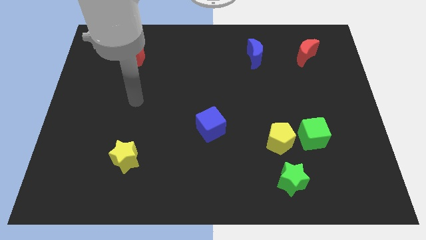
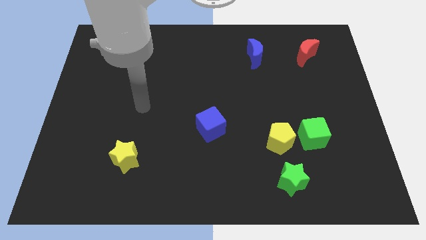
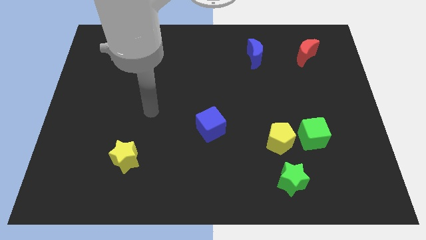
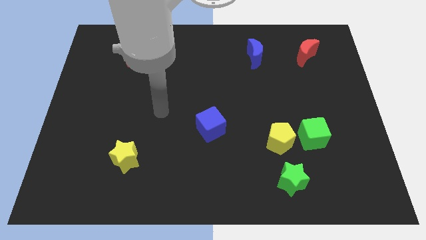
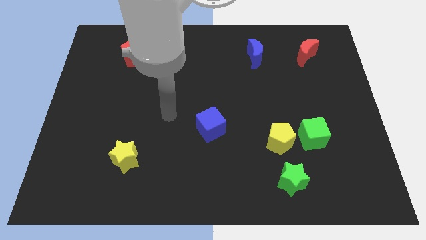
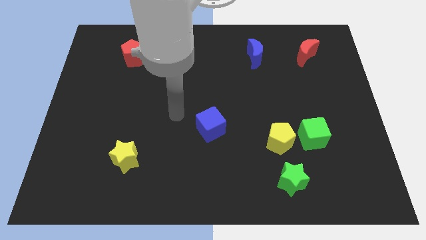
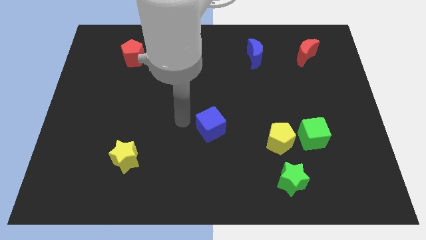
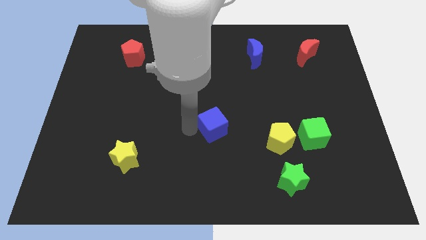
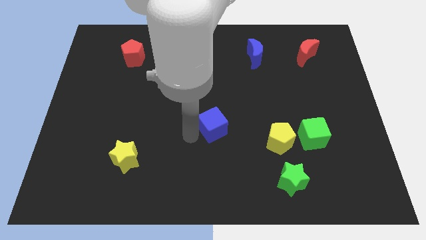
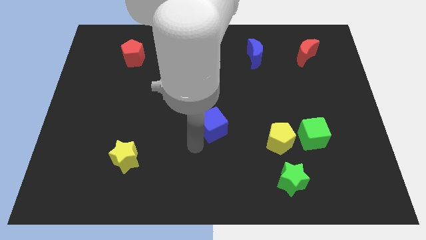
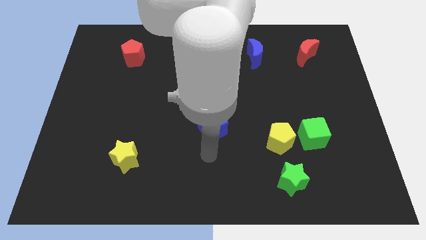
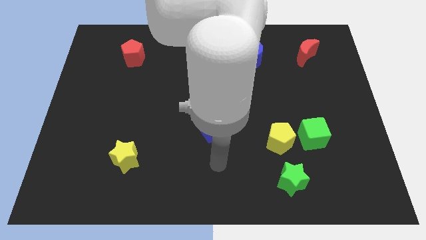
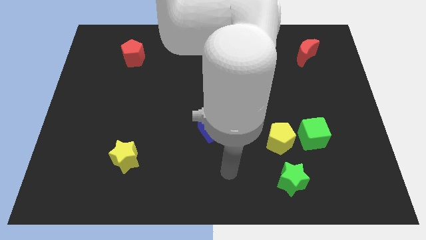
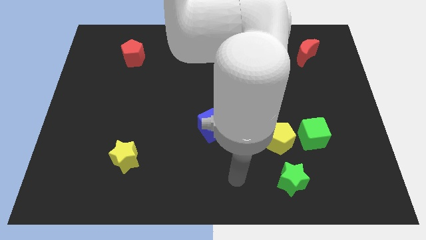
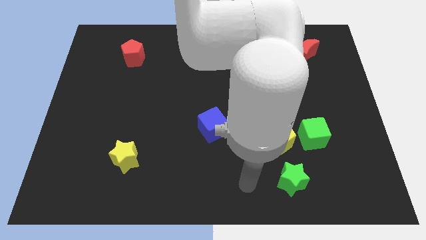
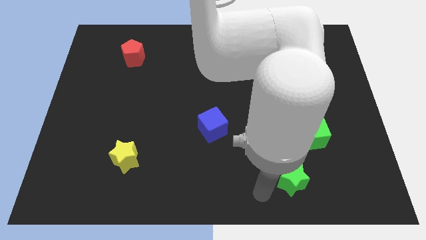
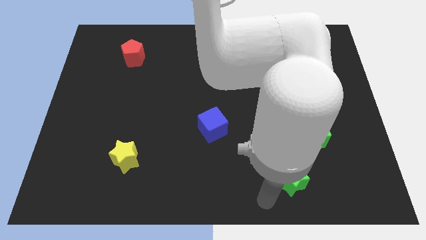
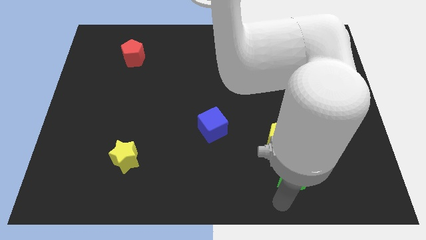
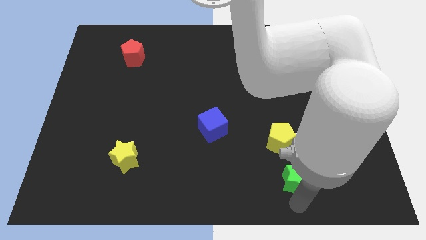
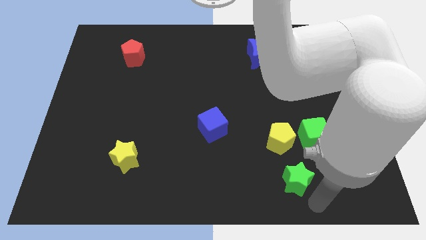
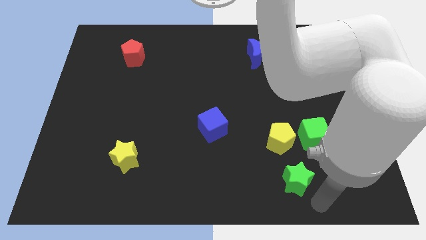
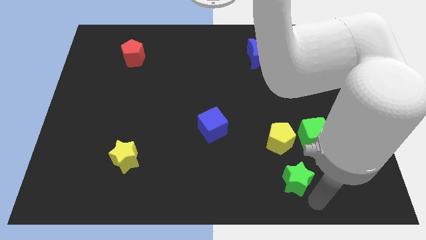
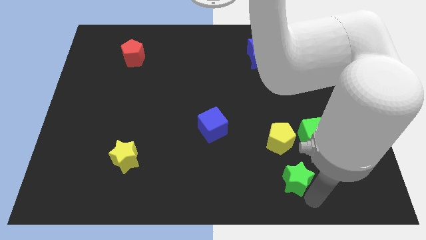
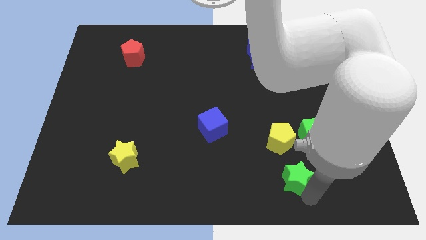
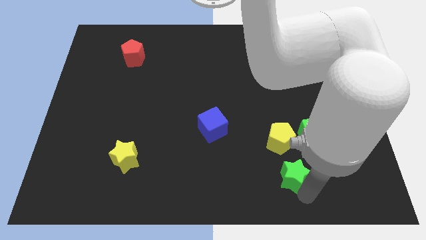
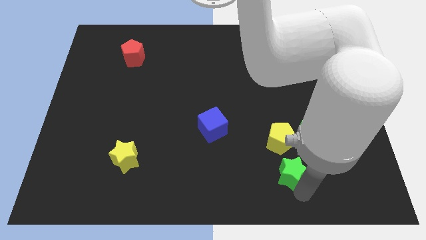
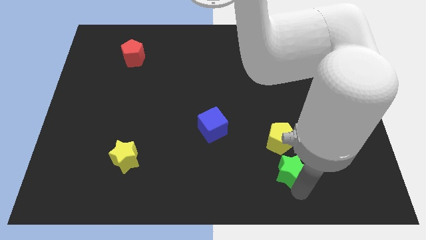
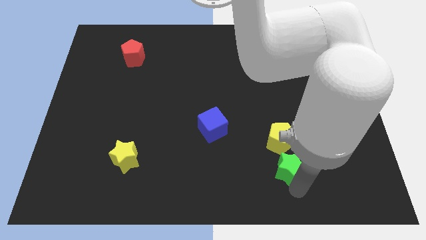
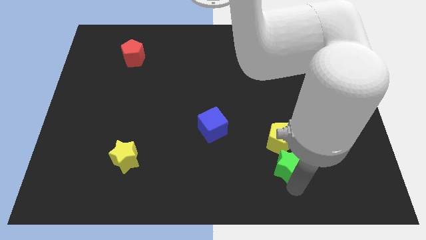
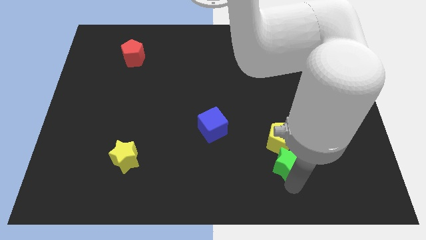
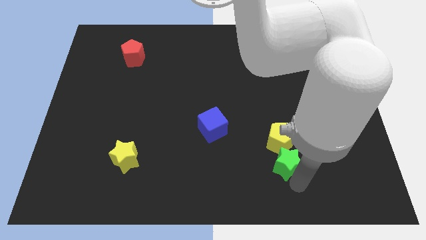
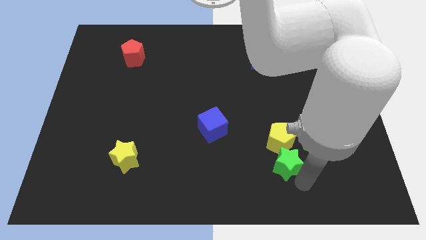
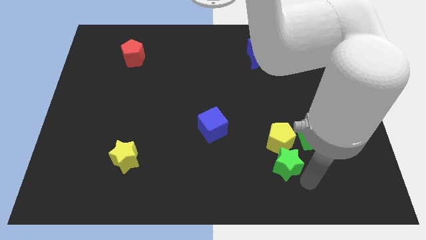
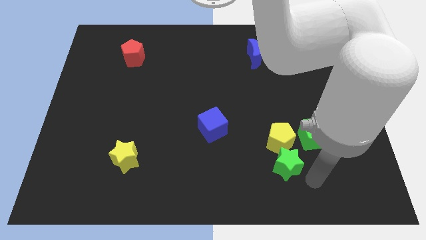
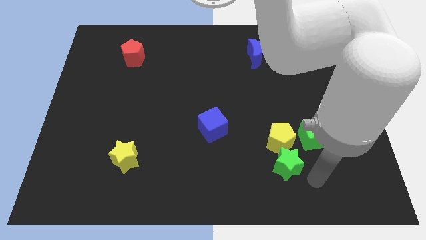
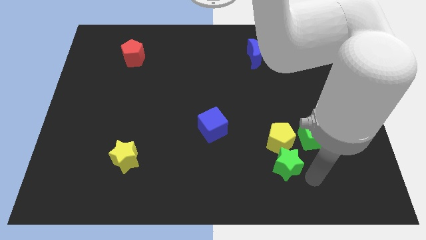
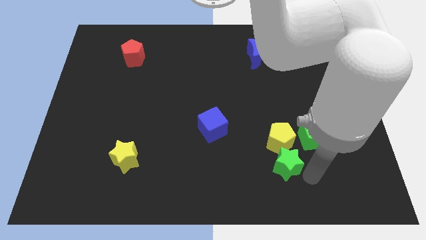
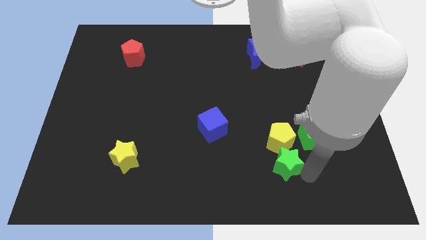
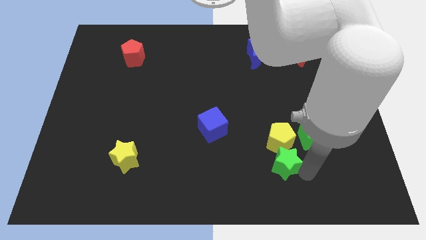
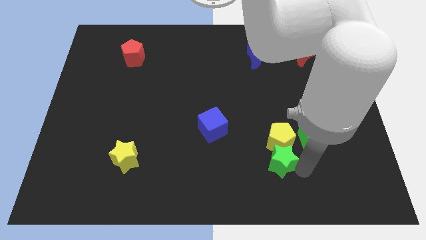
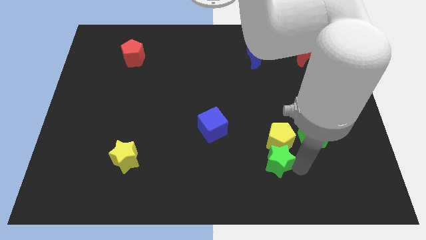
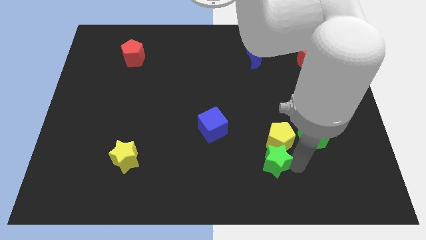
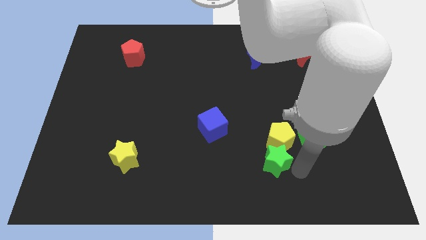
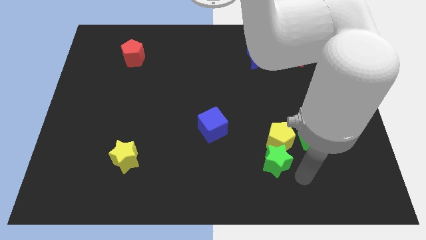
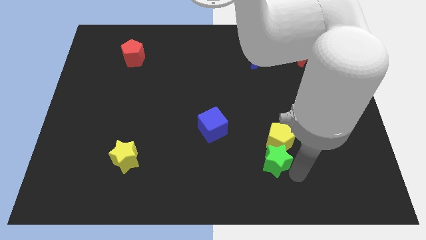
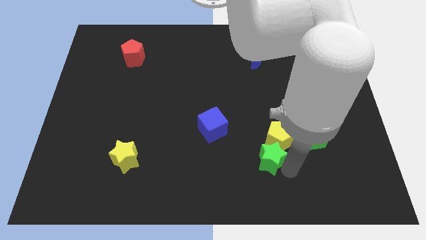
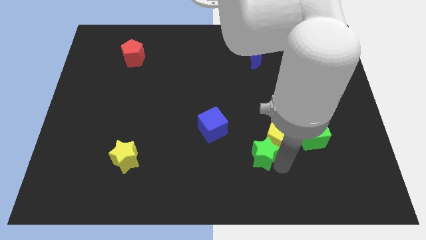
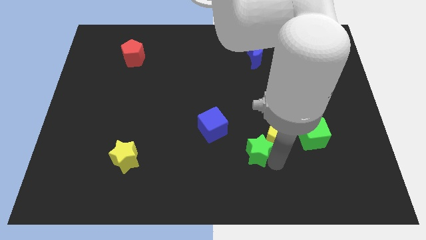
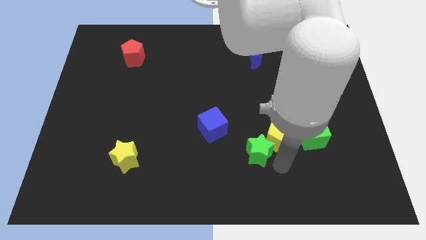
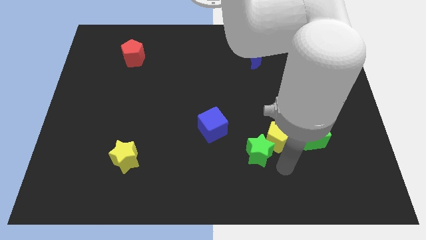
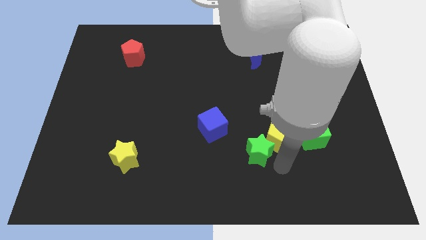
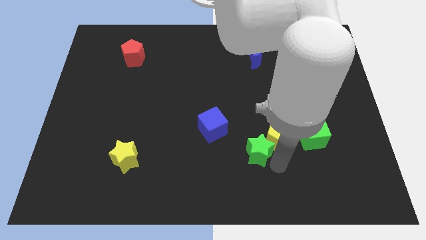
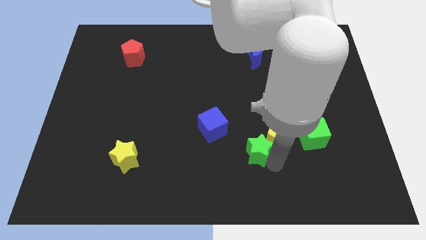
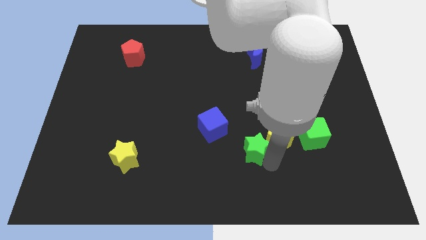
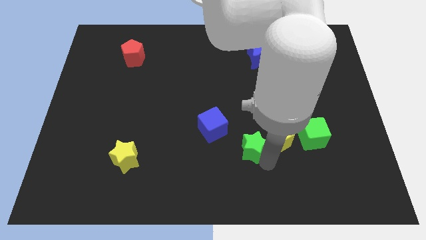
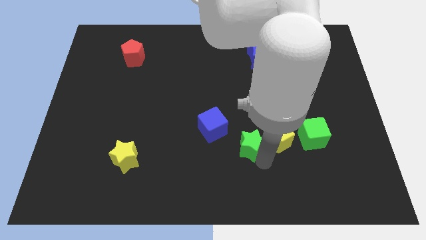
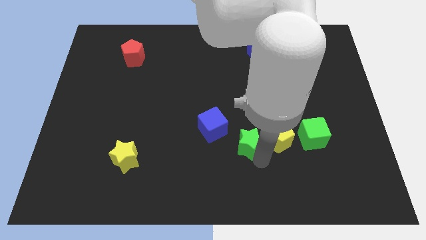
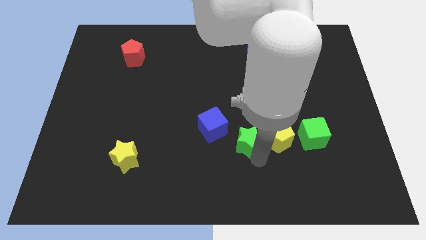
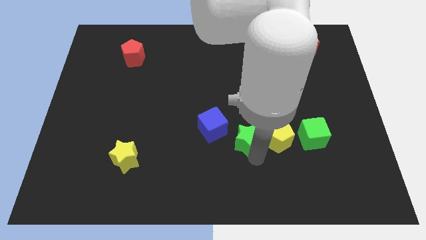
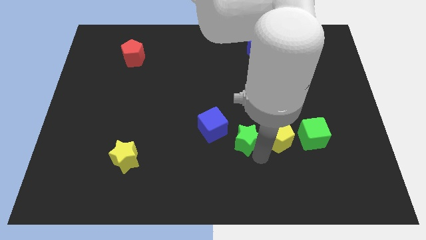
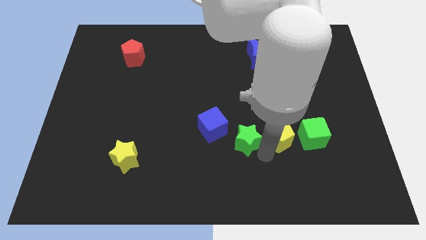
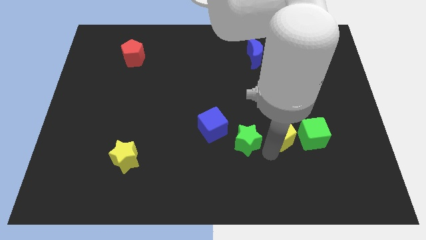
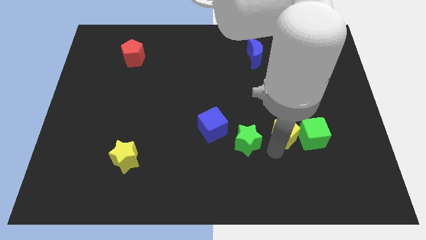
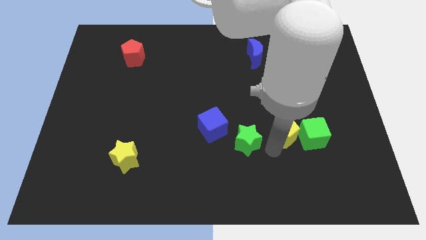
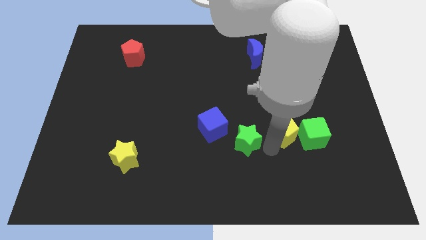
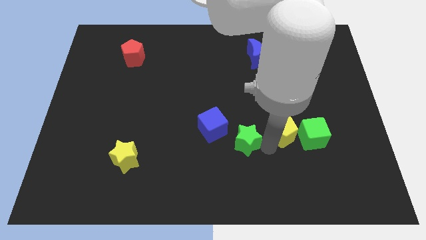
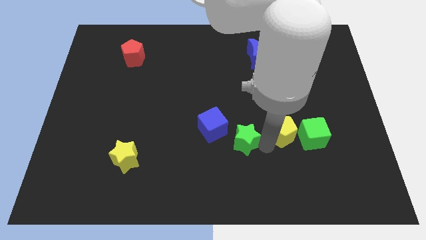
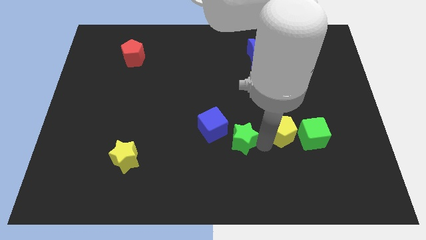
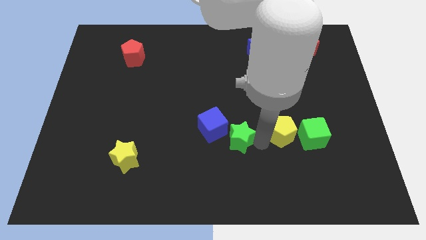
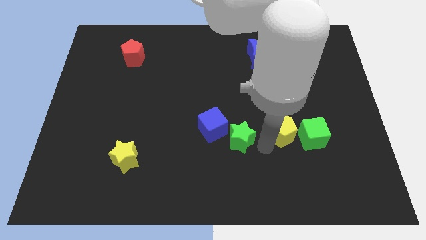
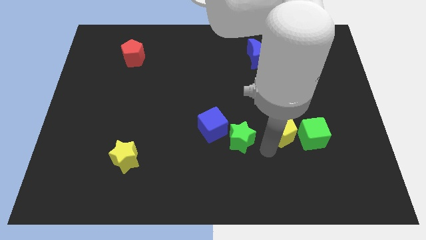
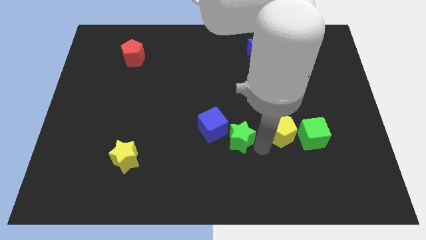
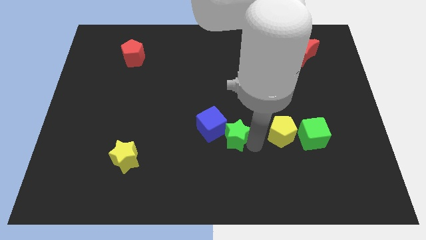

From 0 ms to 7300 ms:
slide the green star towards the blue cube

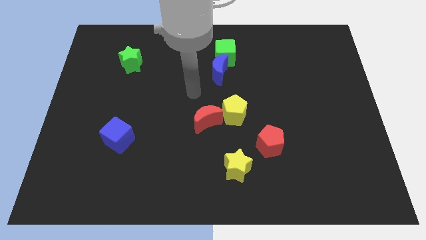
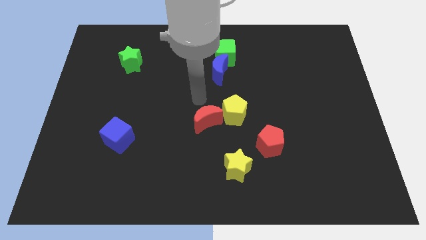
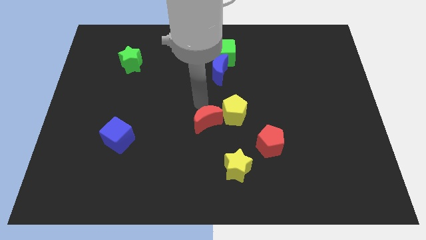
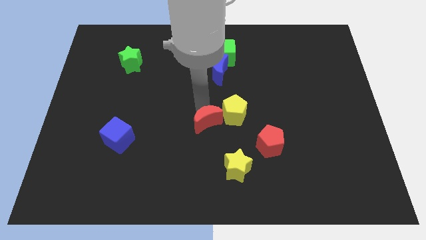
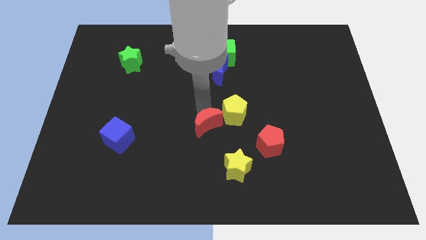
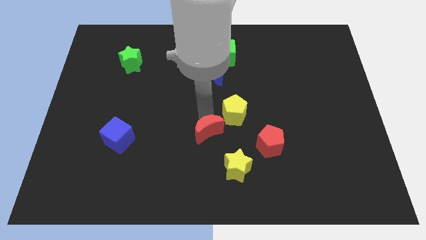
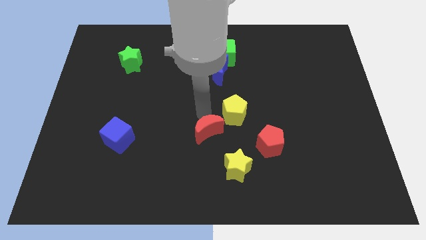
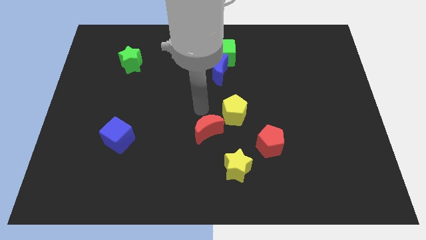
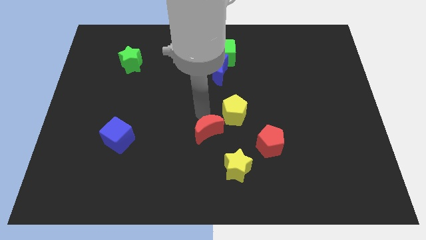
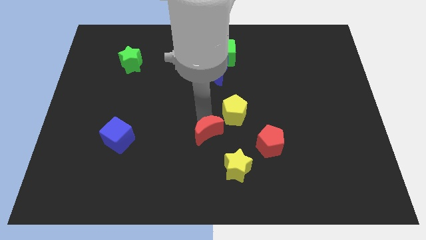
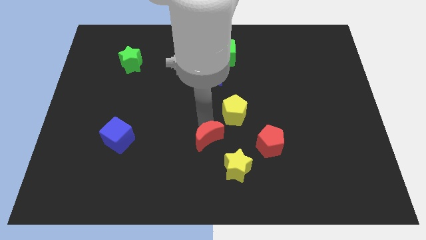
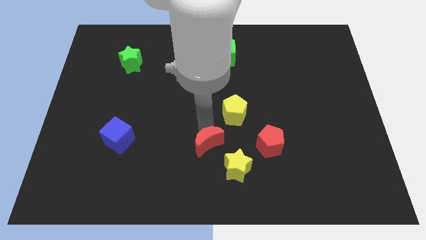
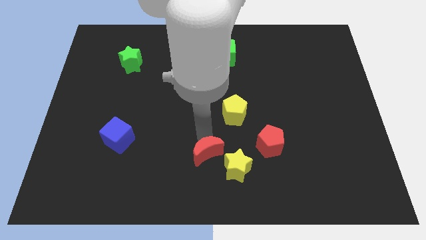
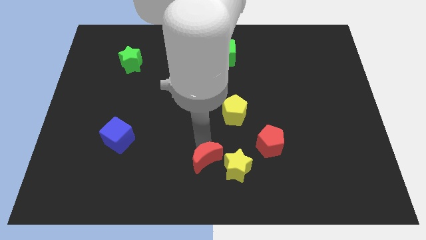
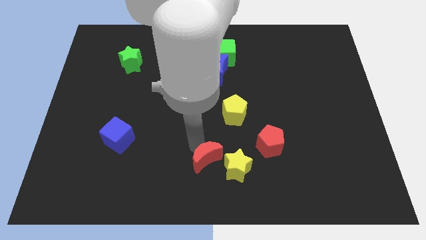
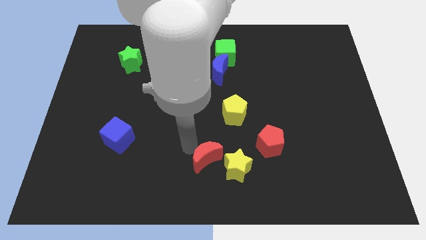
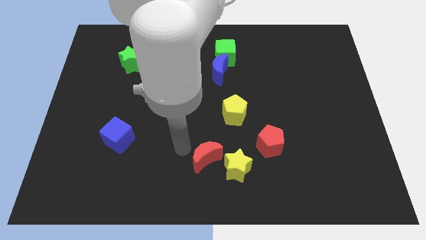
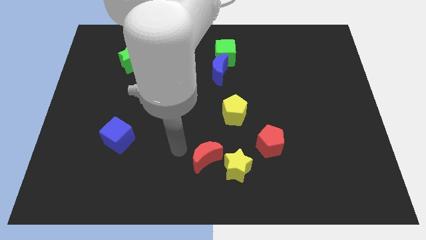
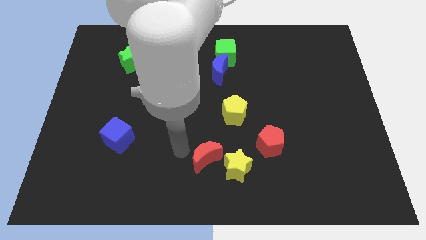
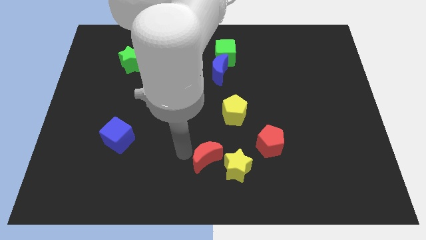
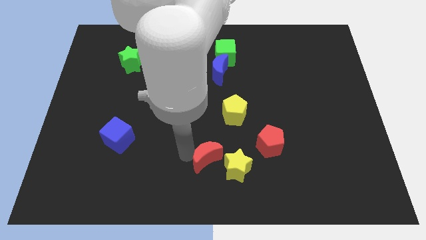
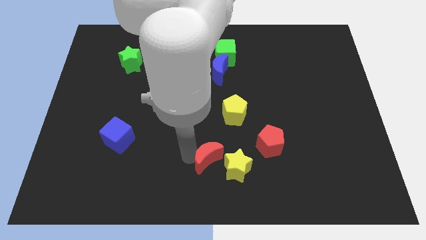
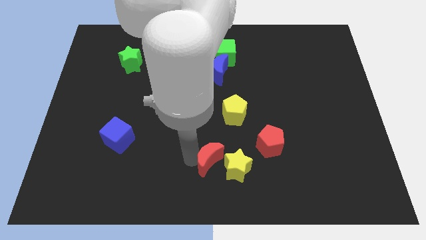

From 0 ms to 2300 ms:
move the red moon next to the yellow star
